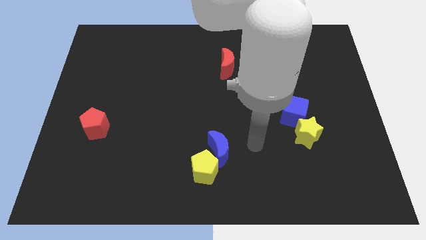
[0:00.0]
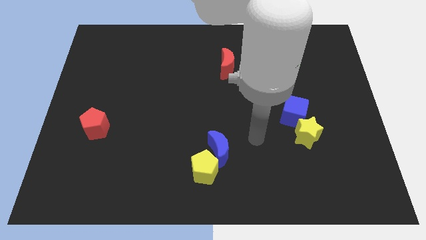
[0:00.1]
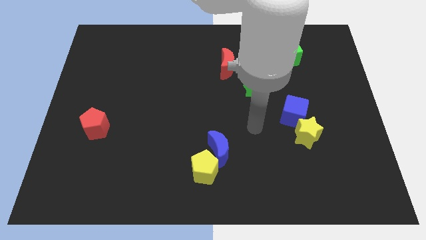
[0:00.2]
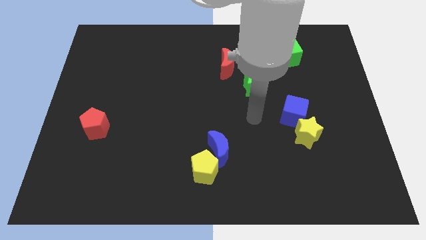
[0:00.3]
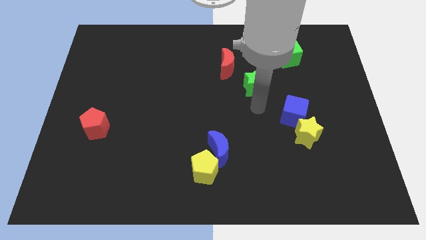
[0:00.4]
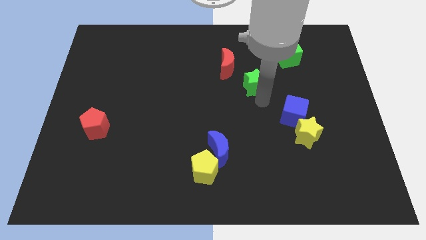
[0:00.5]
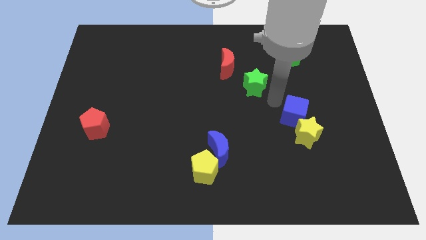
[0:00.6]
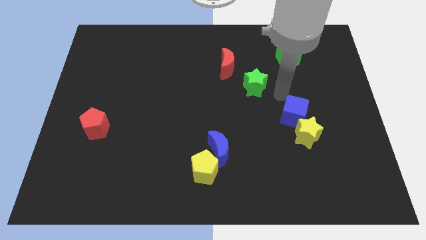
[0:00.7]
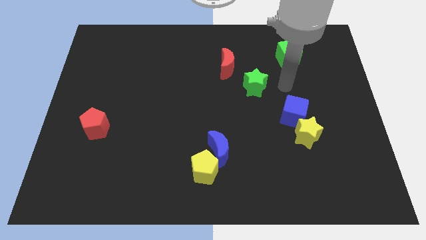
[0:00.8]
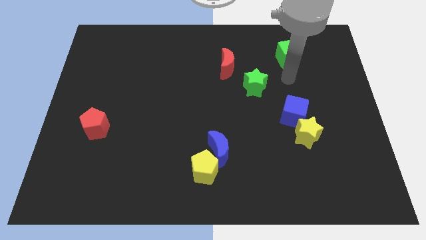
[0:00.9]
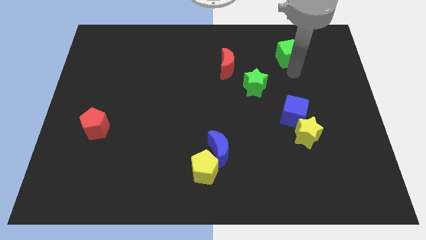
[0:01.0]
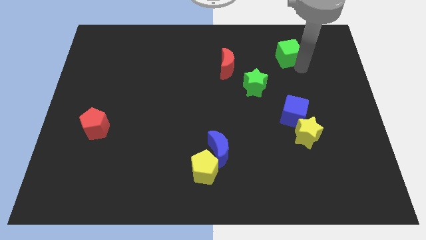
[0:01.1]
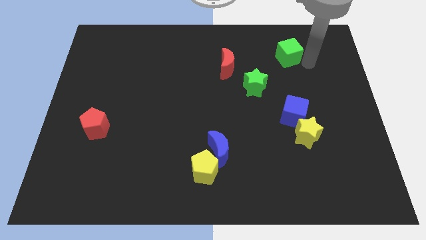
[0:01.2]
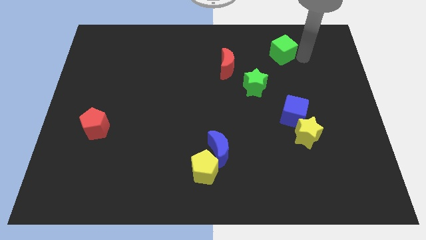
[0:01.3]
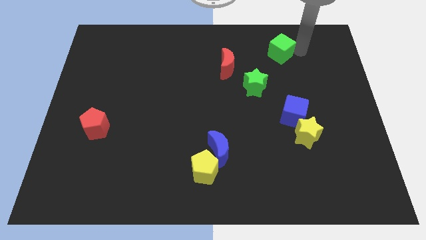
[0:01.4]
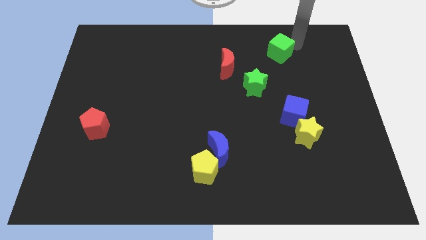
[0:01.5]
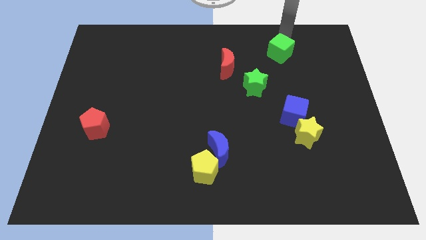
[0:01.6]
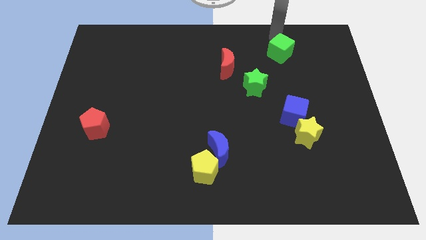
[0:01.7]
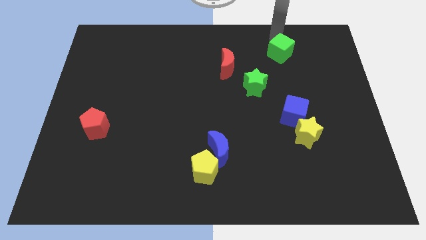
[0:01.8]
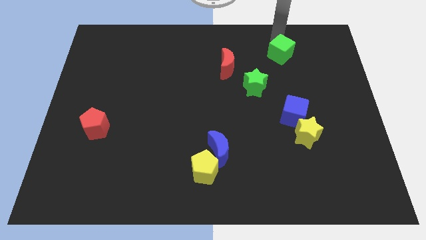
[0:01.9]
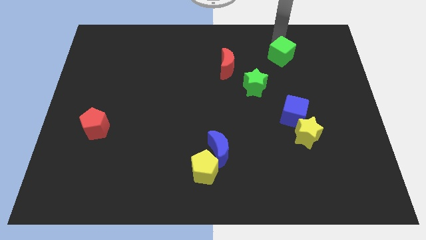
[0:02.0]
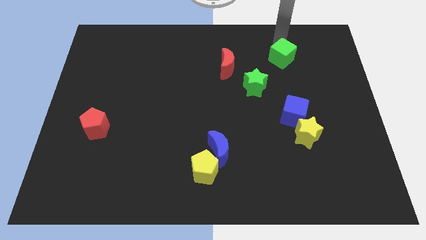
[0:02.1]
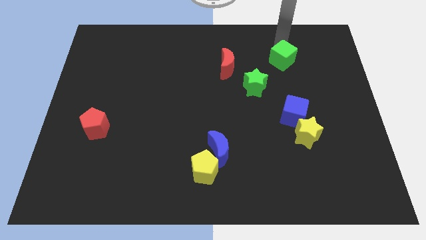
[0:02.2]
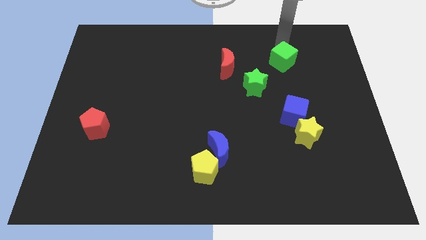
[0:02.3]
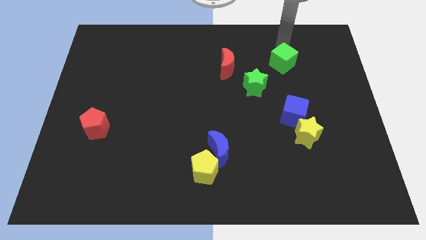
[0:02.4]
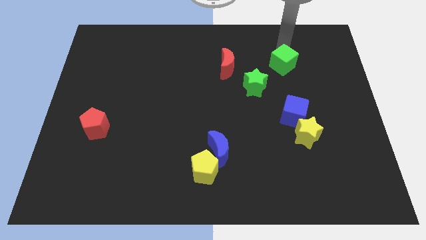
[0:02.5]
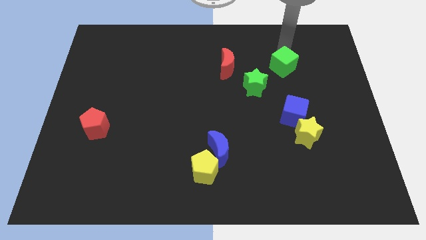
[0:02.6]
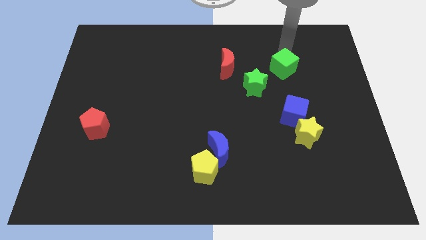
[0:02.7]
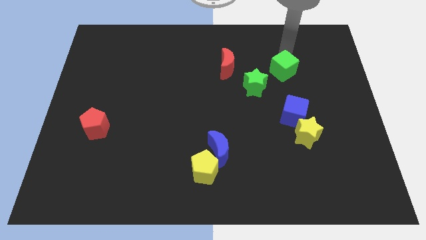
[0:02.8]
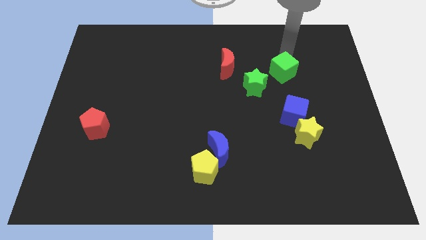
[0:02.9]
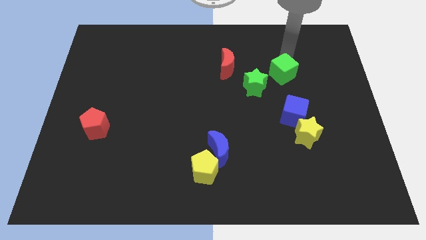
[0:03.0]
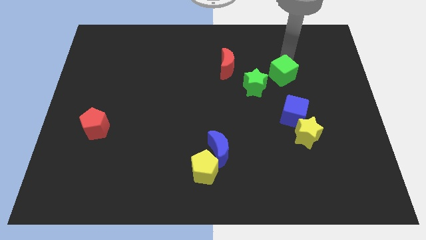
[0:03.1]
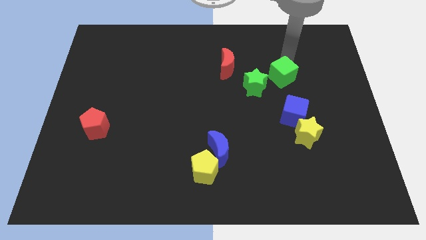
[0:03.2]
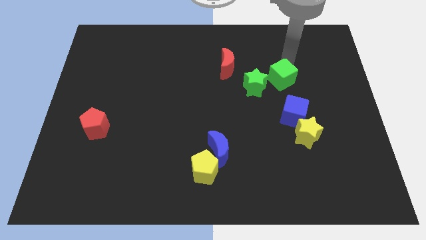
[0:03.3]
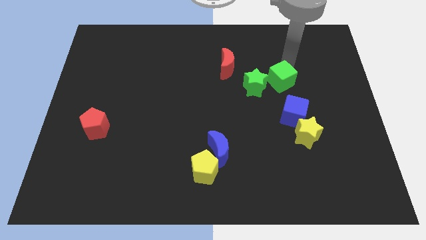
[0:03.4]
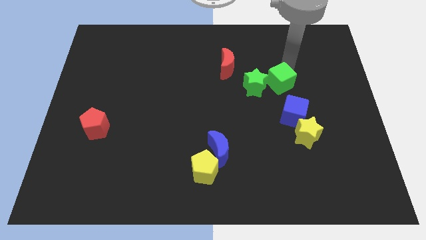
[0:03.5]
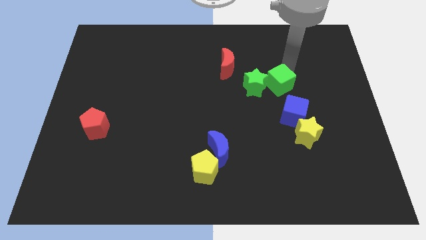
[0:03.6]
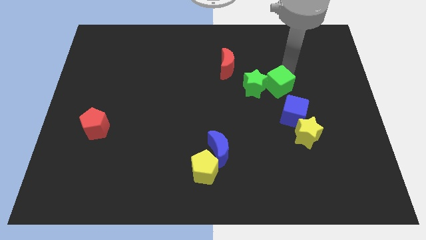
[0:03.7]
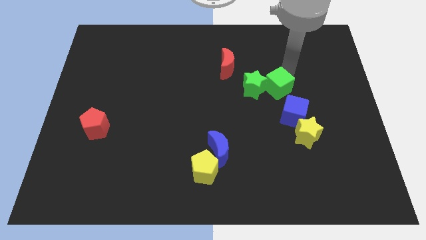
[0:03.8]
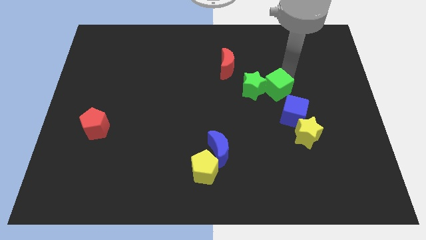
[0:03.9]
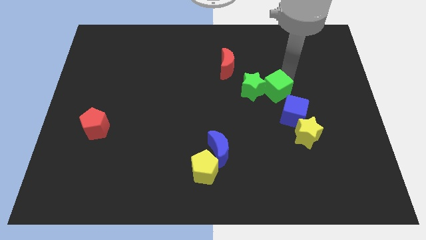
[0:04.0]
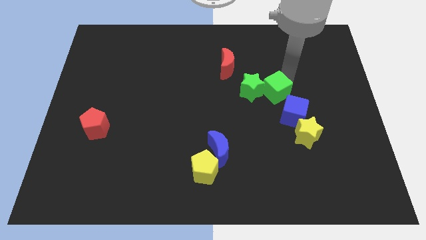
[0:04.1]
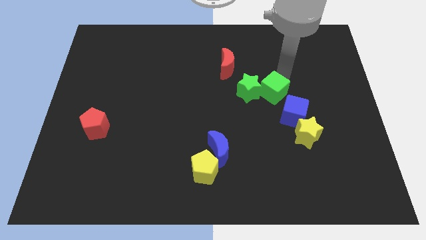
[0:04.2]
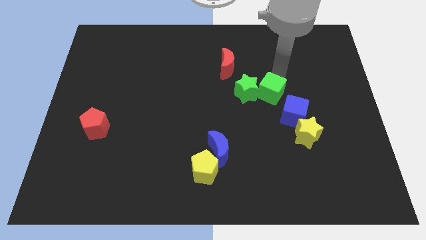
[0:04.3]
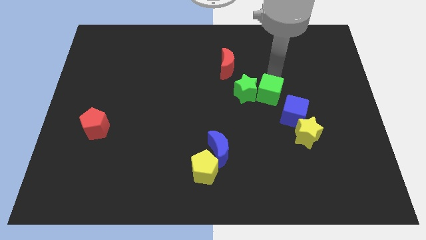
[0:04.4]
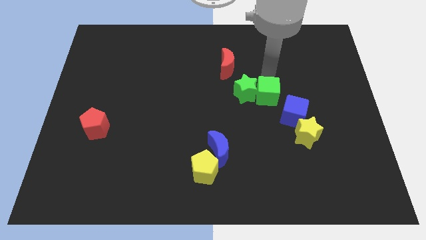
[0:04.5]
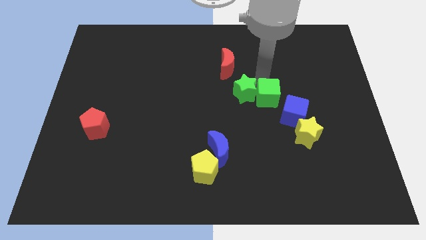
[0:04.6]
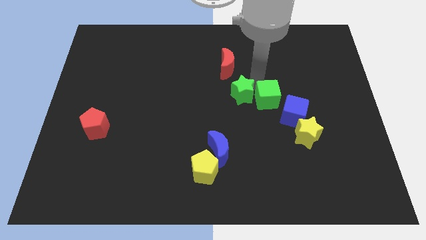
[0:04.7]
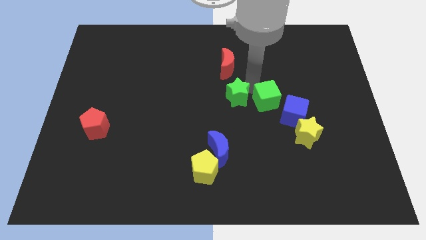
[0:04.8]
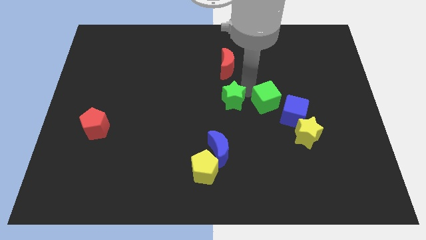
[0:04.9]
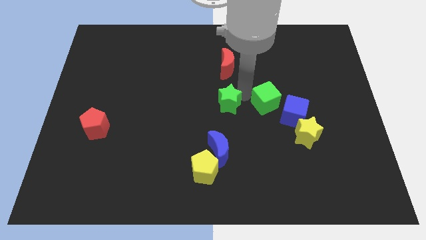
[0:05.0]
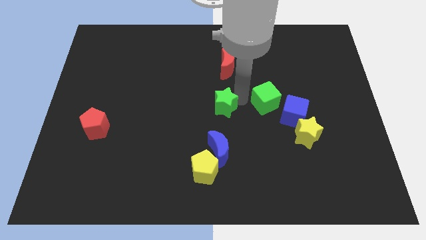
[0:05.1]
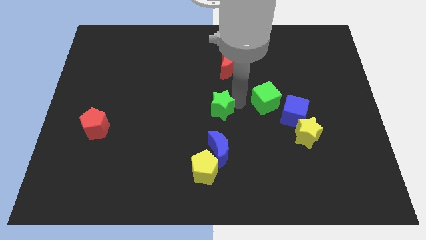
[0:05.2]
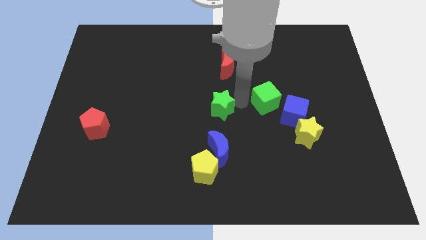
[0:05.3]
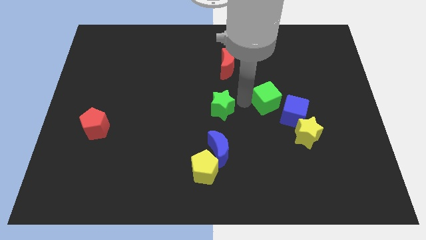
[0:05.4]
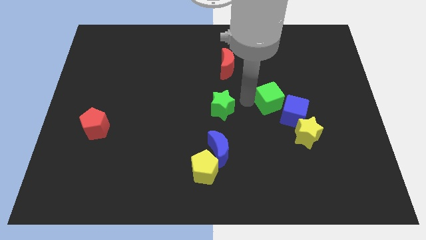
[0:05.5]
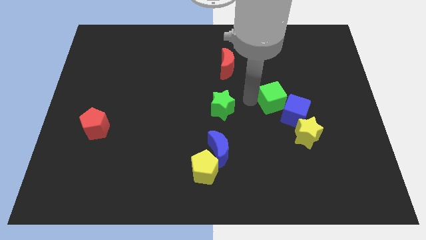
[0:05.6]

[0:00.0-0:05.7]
slide the green cube next to the blue cube

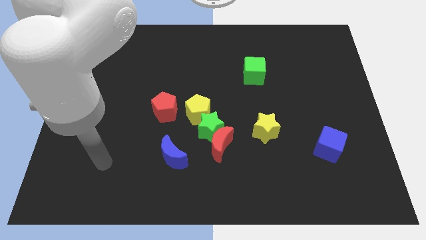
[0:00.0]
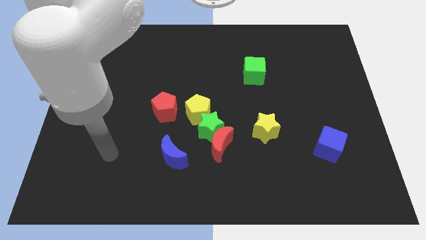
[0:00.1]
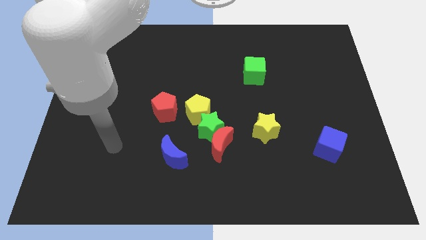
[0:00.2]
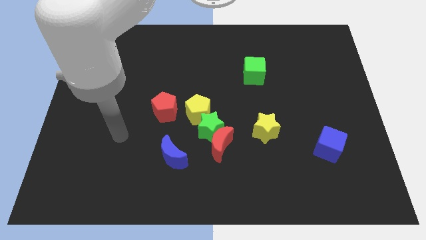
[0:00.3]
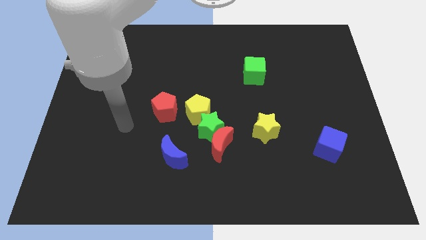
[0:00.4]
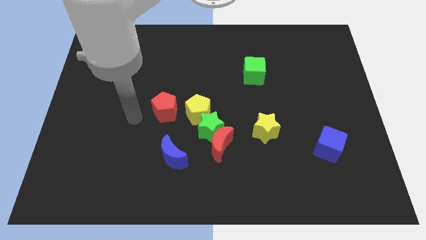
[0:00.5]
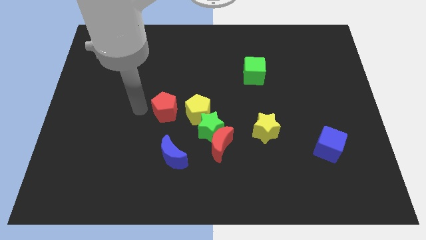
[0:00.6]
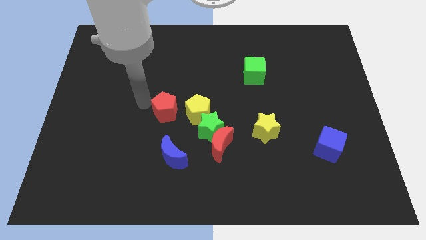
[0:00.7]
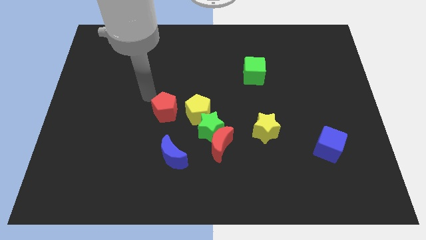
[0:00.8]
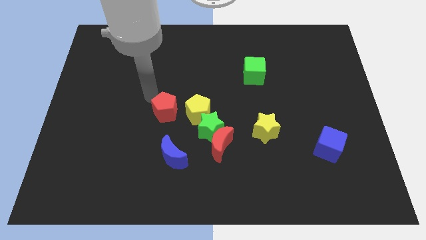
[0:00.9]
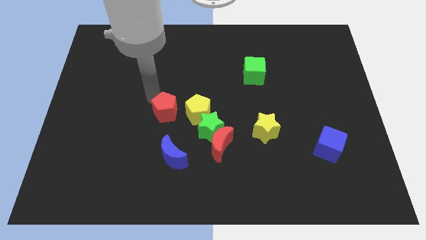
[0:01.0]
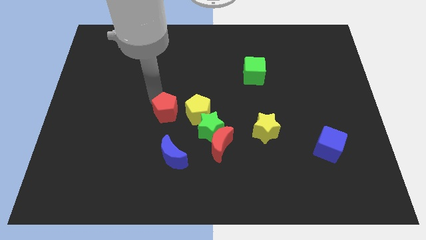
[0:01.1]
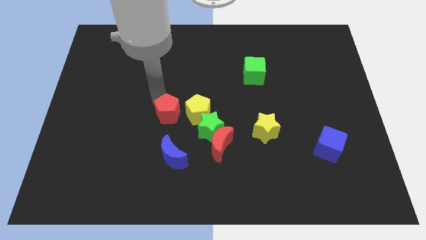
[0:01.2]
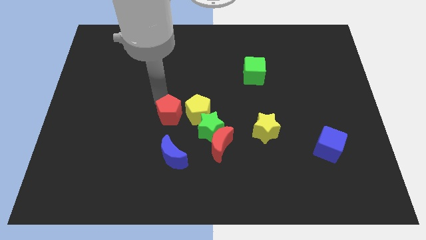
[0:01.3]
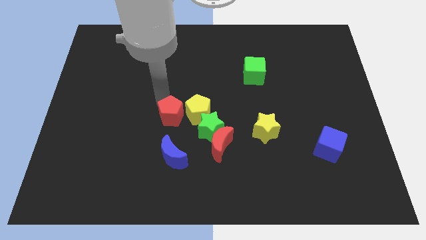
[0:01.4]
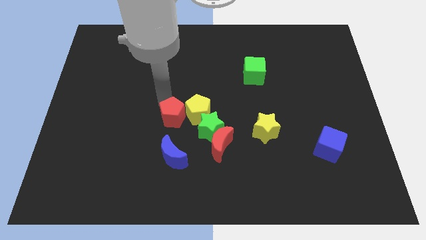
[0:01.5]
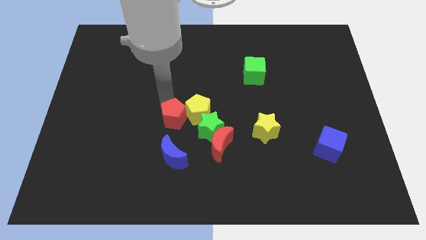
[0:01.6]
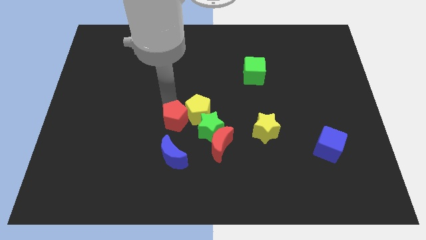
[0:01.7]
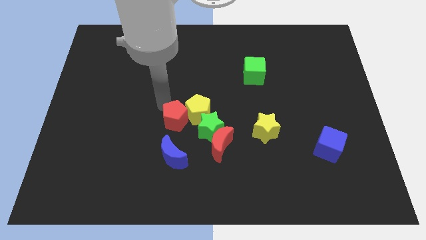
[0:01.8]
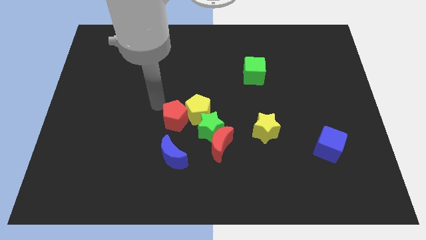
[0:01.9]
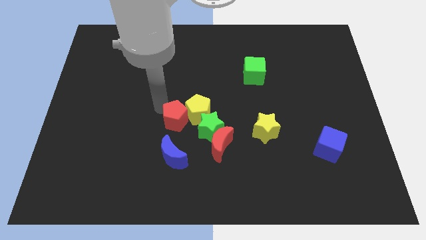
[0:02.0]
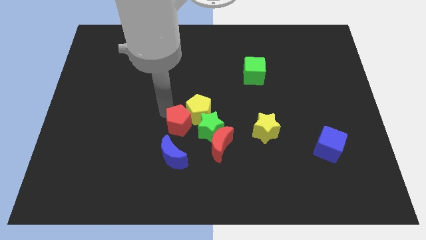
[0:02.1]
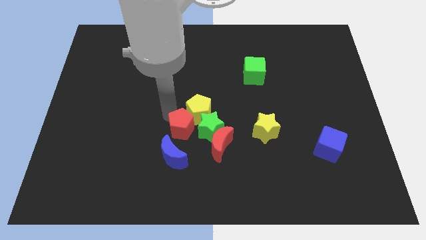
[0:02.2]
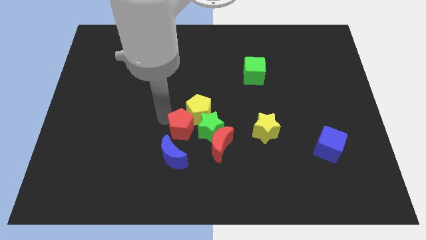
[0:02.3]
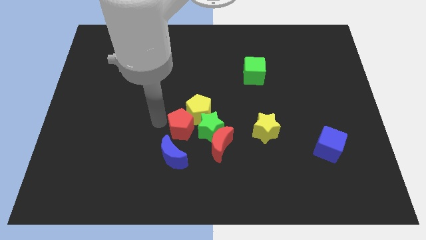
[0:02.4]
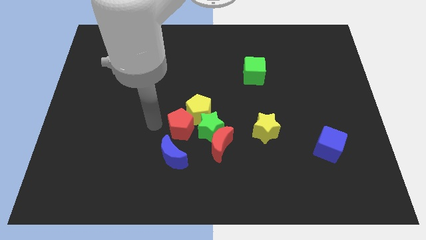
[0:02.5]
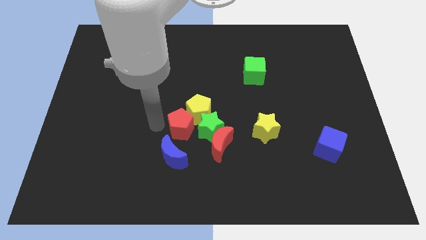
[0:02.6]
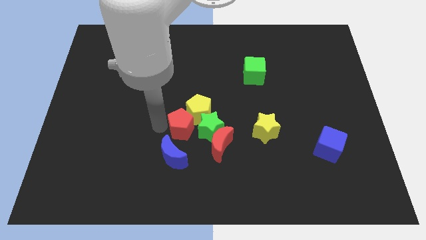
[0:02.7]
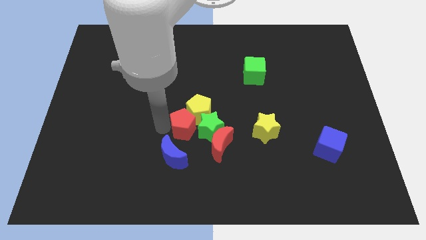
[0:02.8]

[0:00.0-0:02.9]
slide the red pentagon close to the green star
